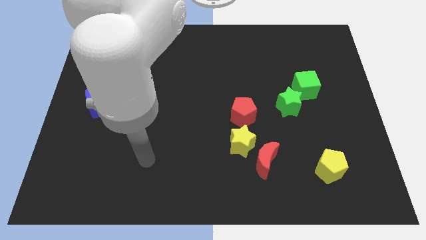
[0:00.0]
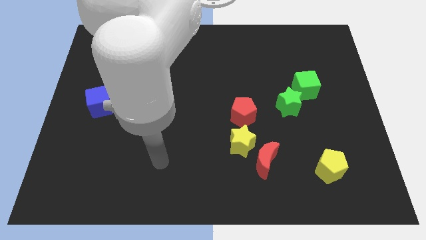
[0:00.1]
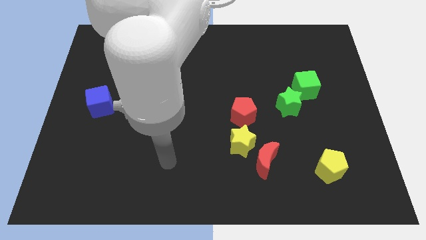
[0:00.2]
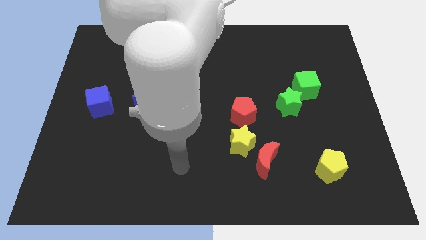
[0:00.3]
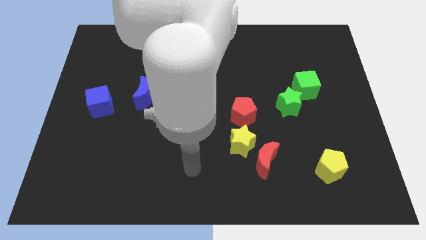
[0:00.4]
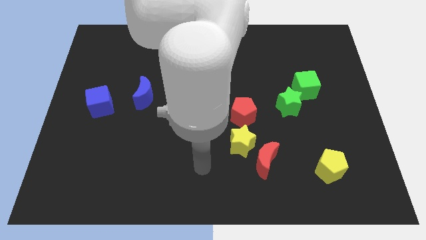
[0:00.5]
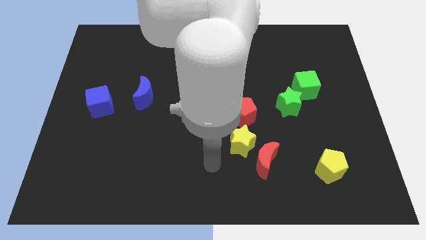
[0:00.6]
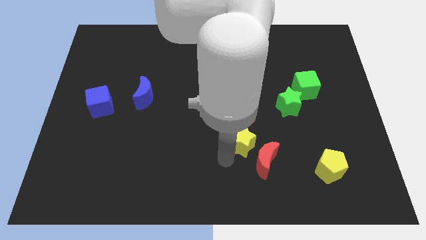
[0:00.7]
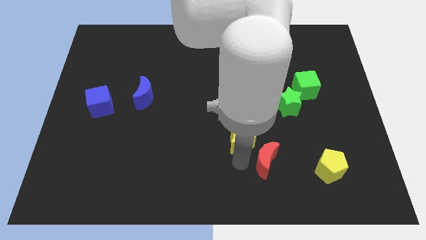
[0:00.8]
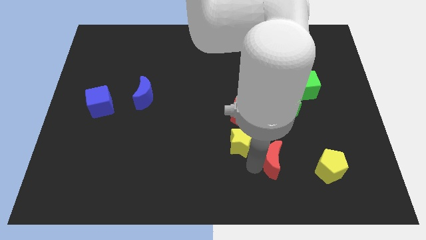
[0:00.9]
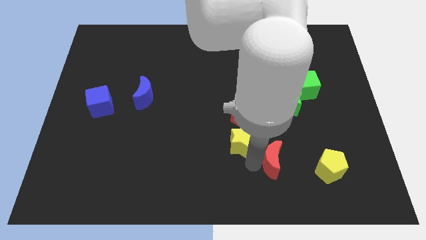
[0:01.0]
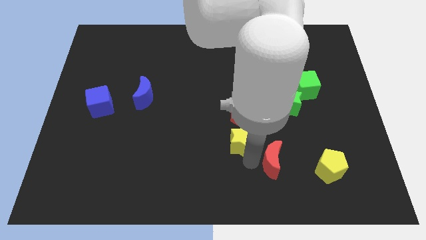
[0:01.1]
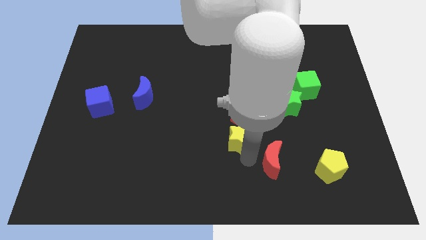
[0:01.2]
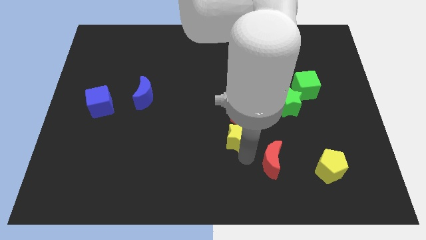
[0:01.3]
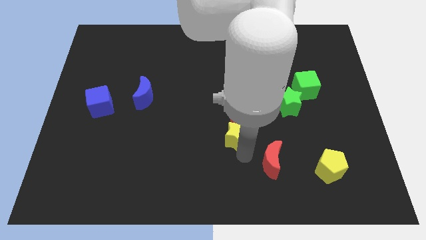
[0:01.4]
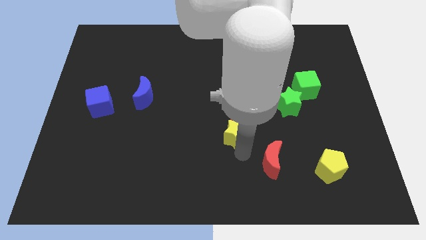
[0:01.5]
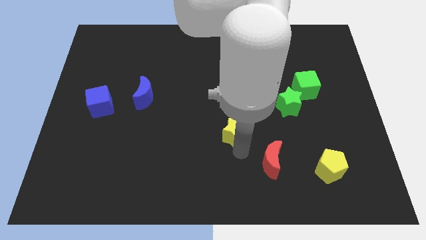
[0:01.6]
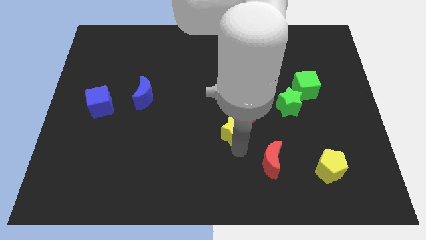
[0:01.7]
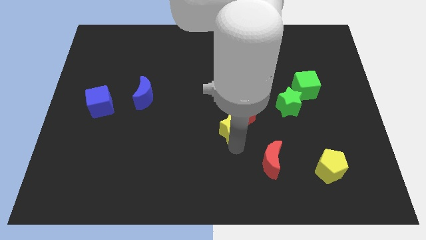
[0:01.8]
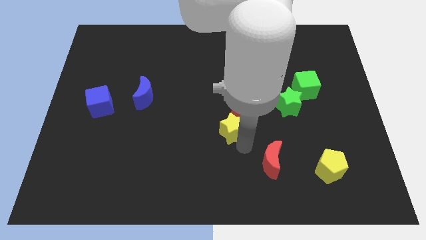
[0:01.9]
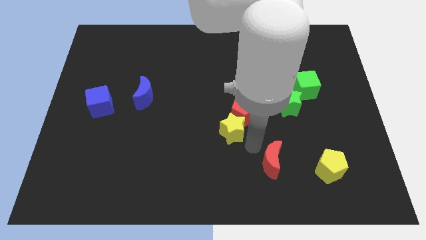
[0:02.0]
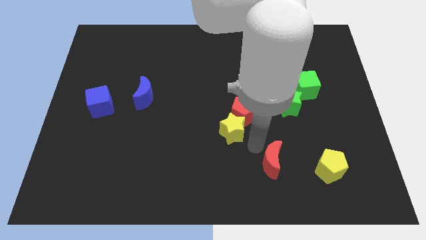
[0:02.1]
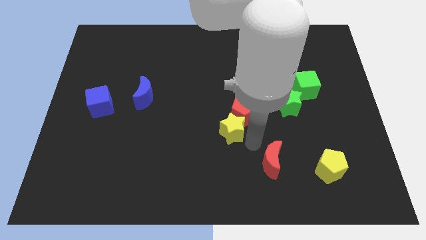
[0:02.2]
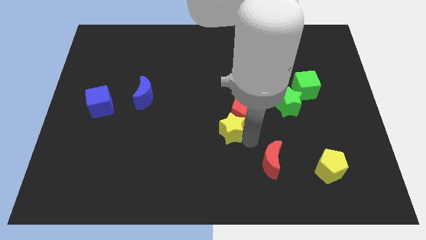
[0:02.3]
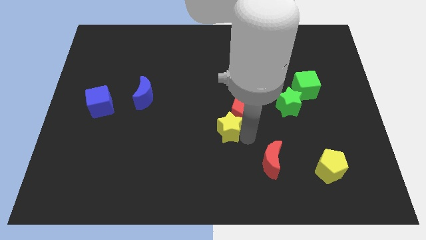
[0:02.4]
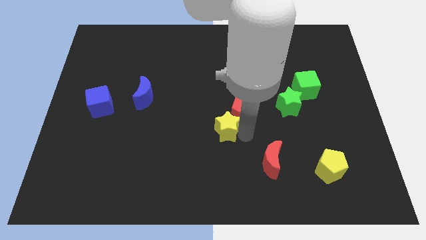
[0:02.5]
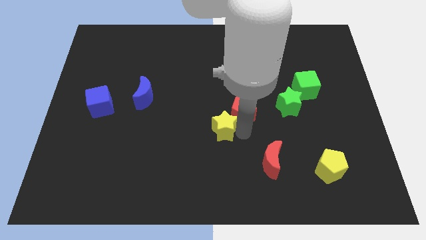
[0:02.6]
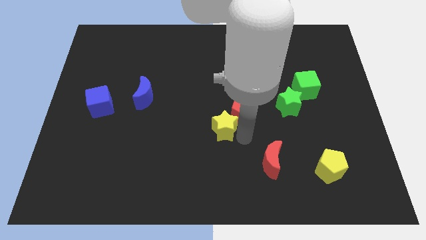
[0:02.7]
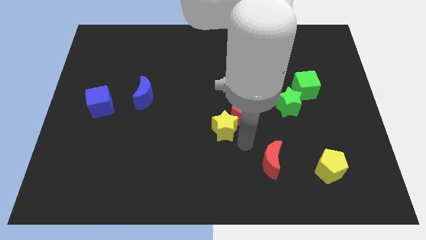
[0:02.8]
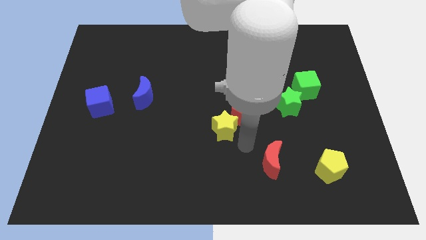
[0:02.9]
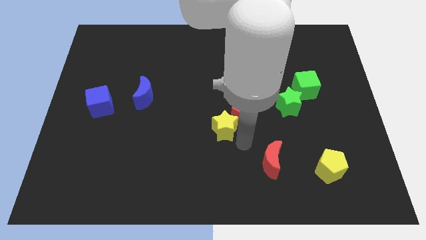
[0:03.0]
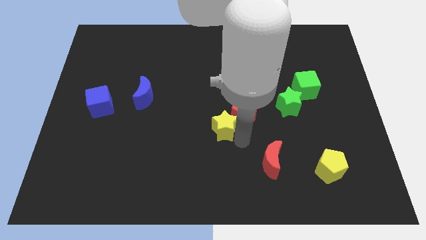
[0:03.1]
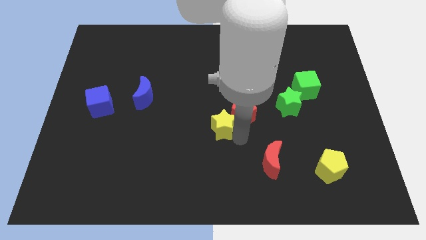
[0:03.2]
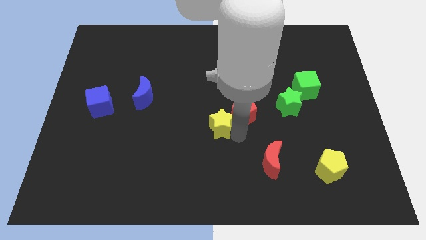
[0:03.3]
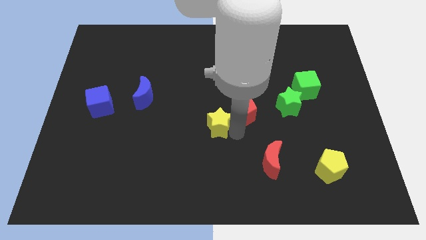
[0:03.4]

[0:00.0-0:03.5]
slightly slide the yellow star up and to the left diagonally

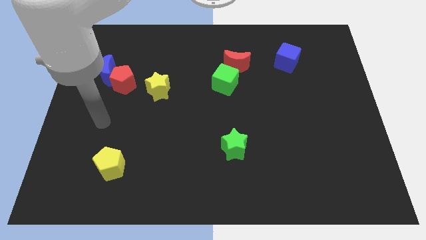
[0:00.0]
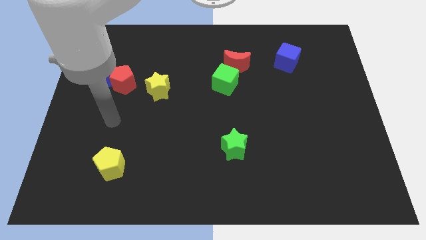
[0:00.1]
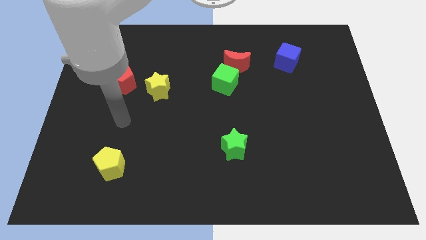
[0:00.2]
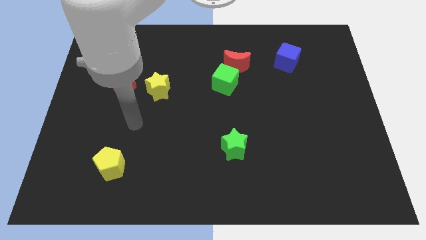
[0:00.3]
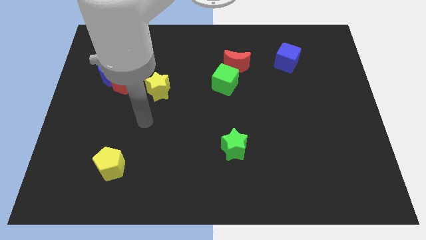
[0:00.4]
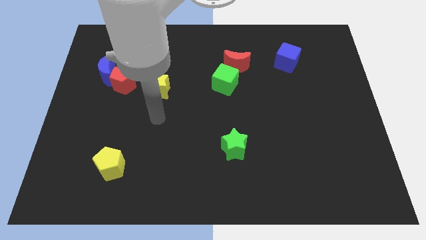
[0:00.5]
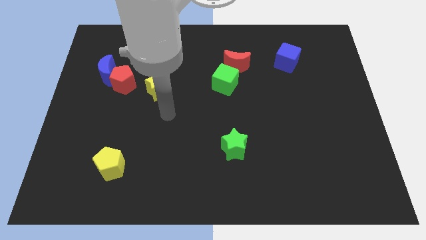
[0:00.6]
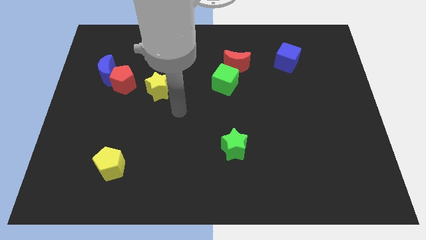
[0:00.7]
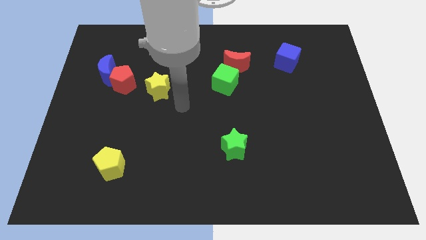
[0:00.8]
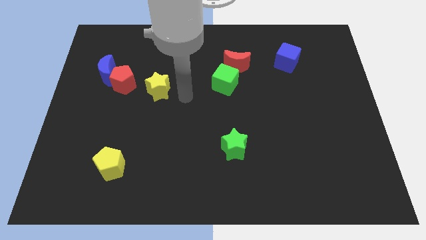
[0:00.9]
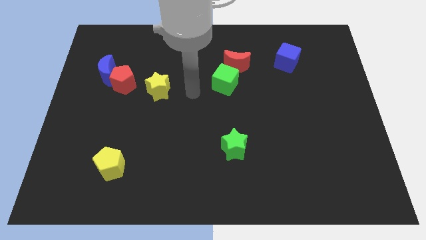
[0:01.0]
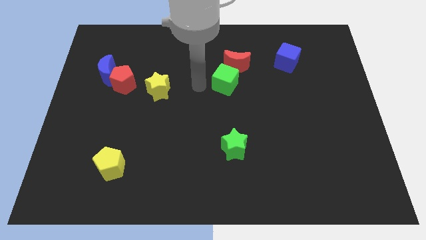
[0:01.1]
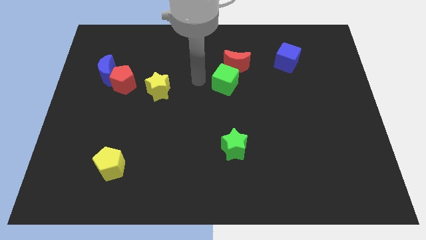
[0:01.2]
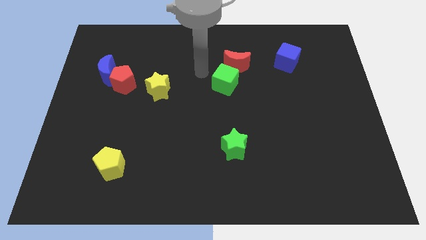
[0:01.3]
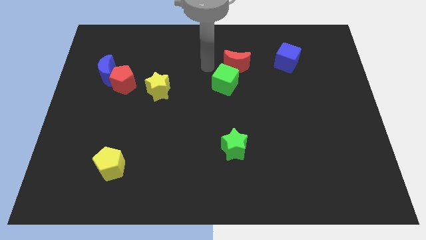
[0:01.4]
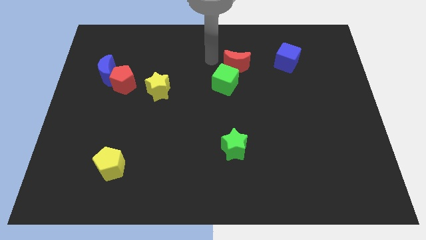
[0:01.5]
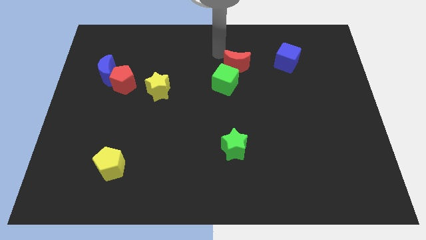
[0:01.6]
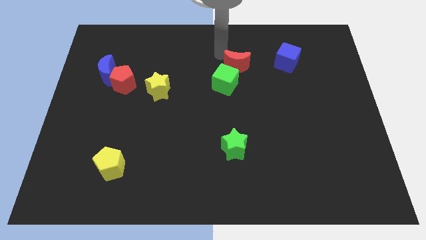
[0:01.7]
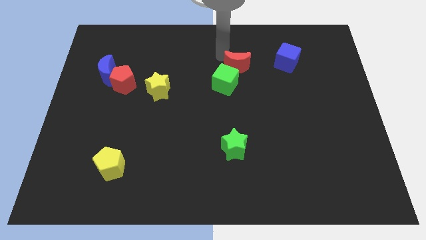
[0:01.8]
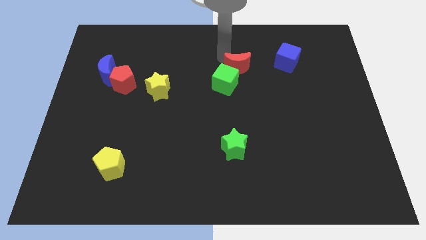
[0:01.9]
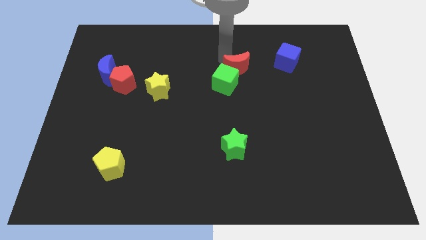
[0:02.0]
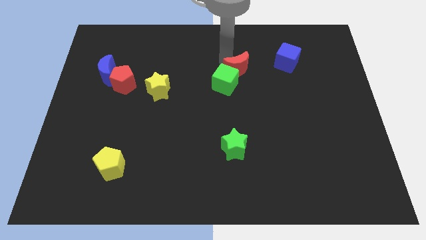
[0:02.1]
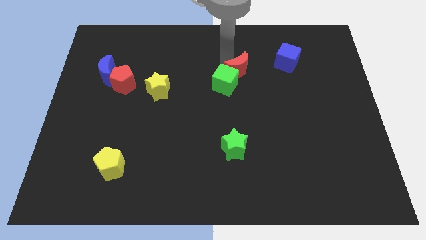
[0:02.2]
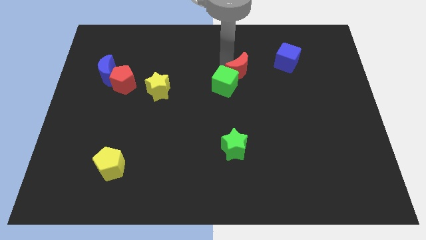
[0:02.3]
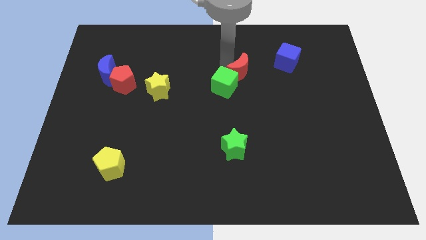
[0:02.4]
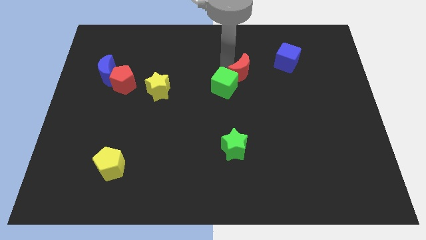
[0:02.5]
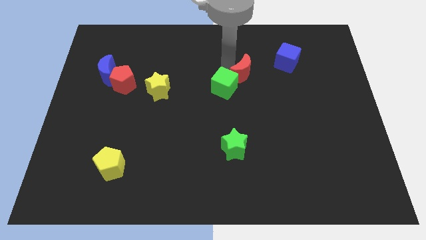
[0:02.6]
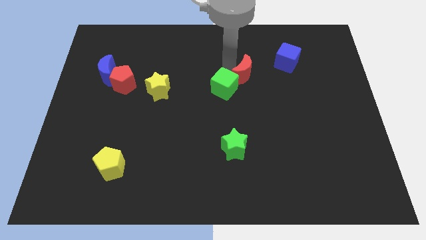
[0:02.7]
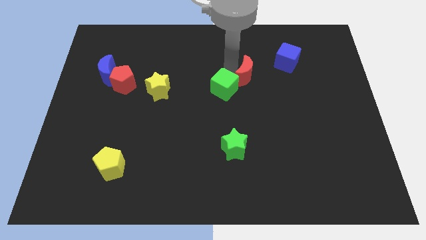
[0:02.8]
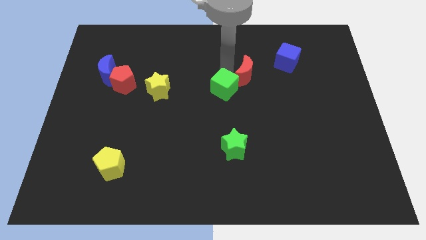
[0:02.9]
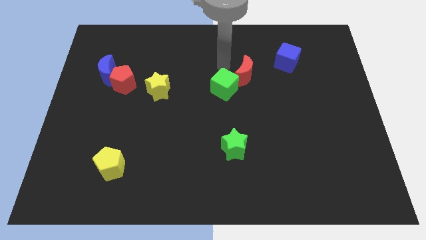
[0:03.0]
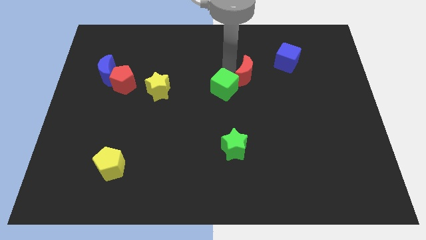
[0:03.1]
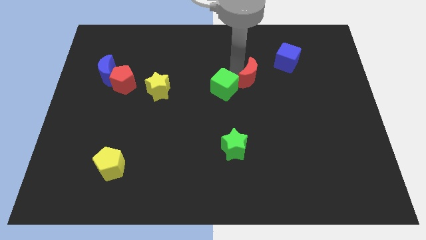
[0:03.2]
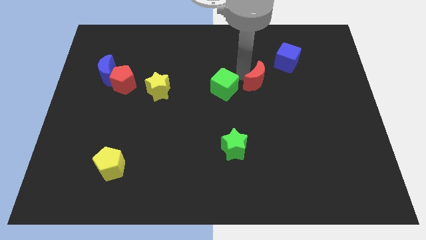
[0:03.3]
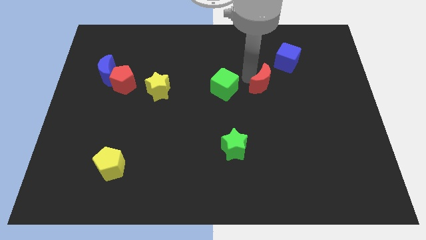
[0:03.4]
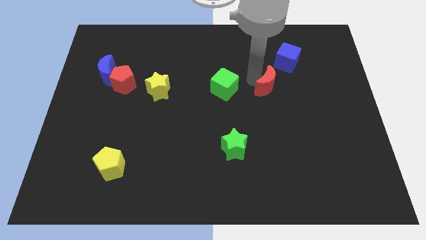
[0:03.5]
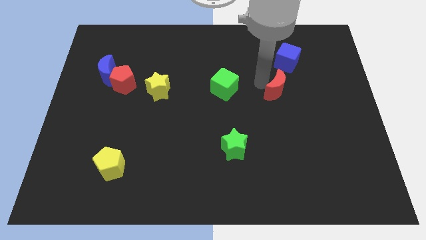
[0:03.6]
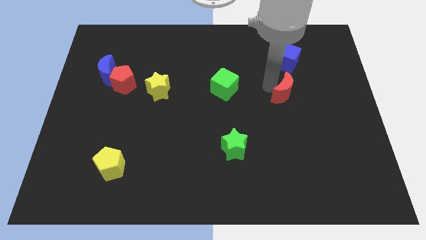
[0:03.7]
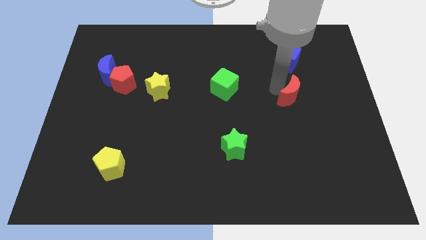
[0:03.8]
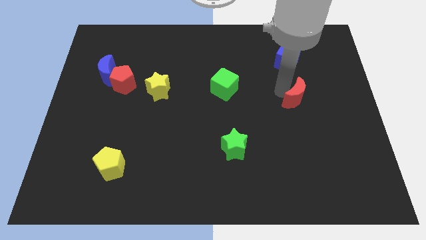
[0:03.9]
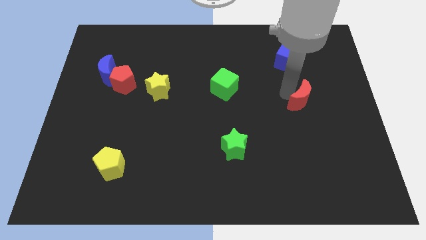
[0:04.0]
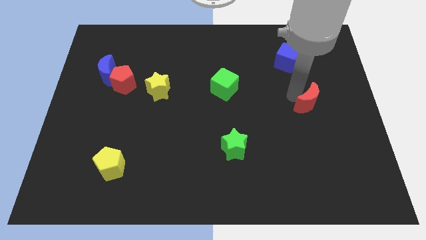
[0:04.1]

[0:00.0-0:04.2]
slide the red moon diagonally down and right

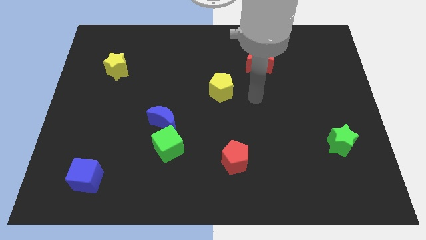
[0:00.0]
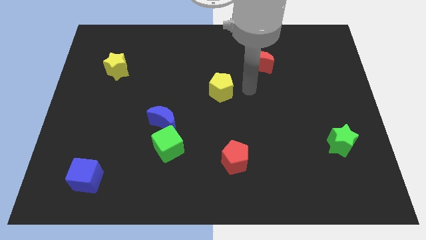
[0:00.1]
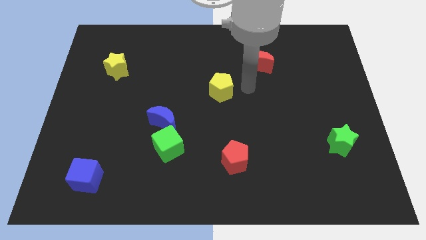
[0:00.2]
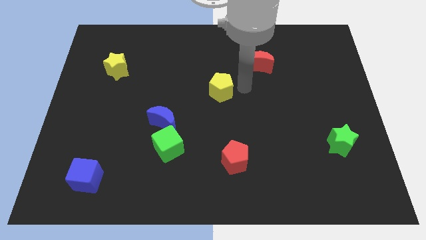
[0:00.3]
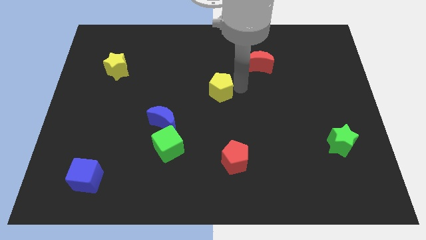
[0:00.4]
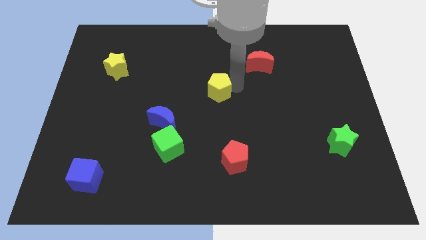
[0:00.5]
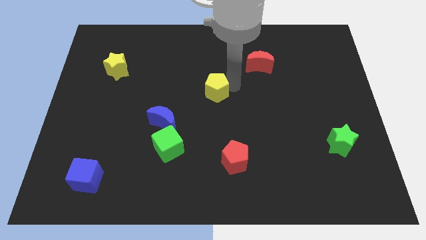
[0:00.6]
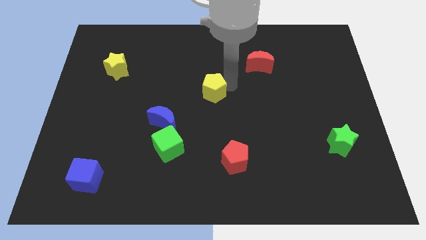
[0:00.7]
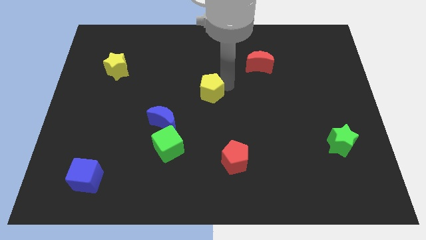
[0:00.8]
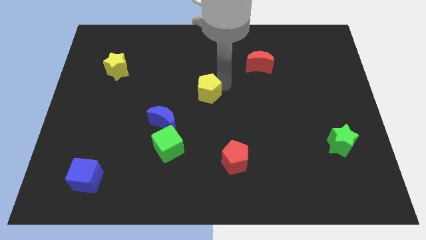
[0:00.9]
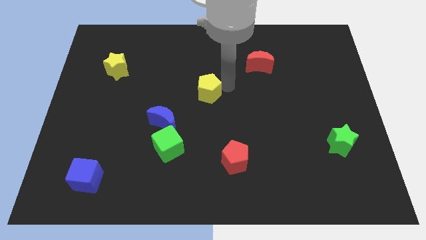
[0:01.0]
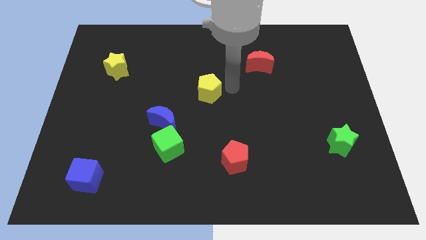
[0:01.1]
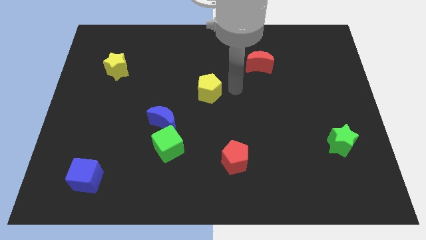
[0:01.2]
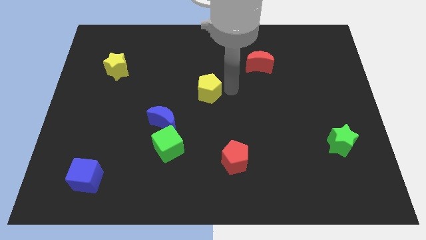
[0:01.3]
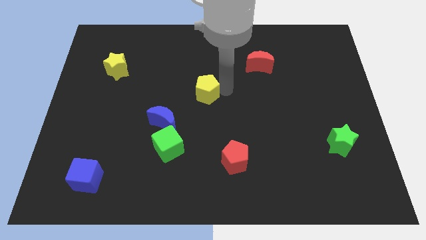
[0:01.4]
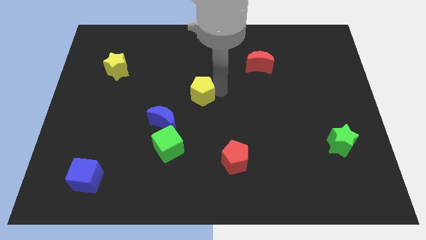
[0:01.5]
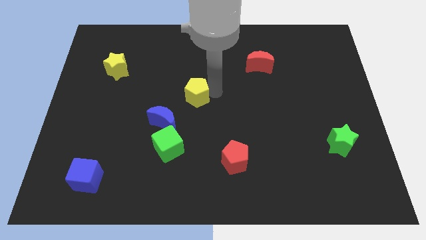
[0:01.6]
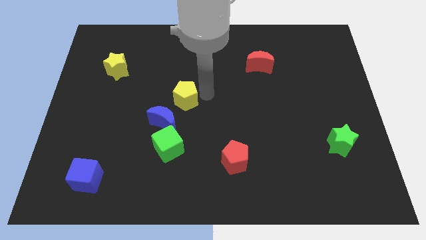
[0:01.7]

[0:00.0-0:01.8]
slightly push the yellow pentagon to the left
